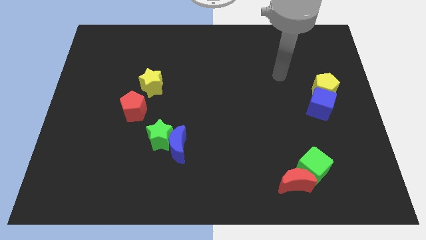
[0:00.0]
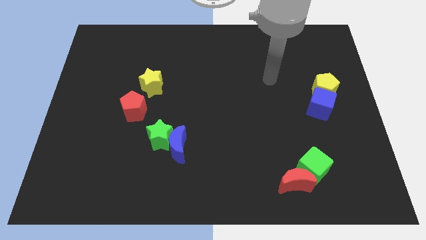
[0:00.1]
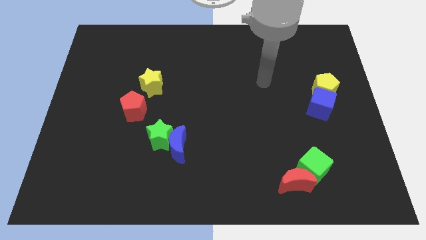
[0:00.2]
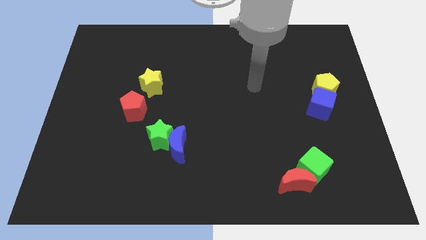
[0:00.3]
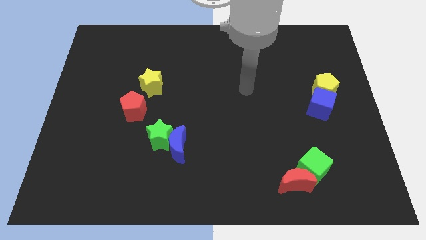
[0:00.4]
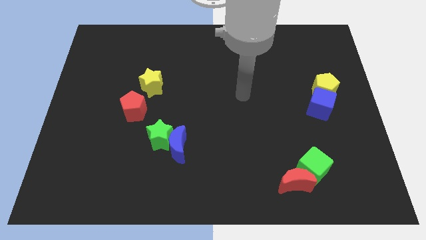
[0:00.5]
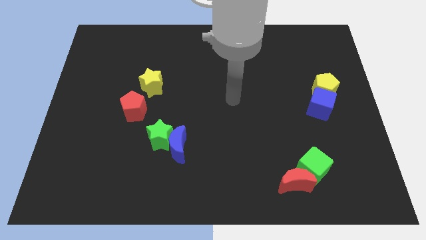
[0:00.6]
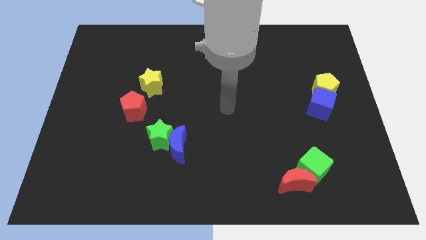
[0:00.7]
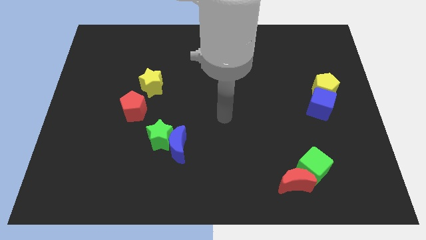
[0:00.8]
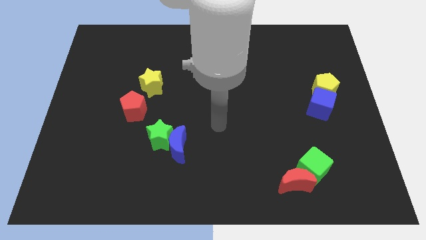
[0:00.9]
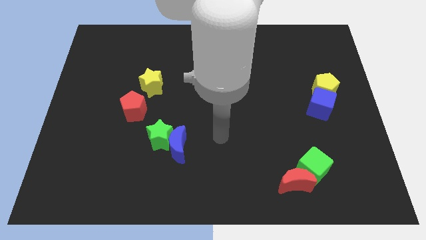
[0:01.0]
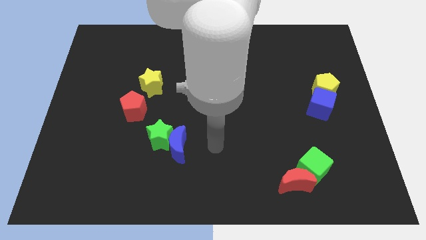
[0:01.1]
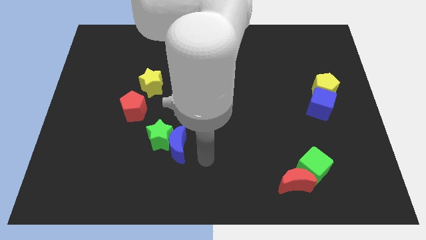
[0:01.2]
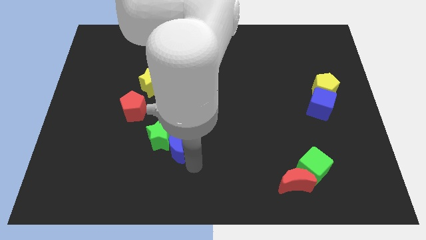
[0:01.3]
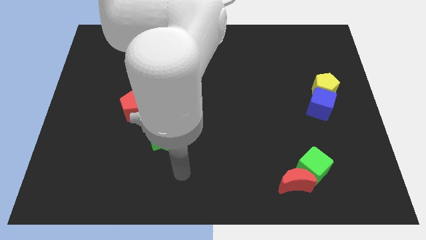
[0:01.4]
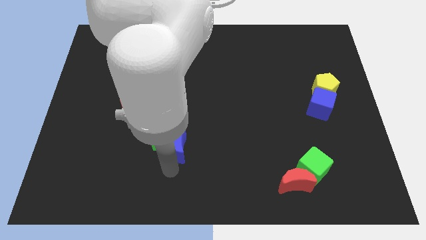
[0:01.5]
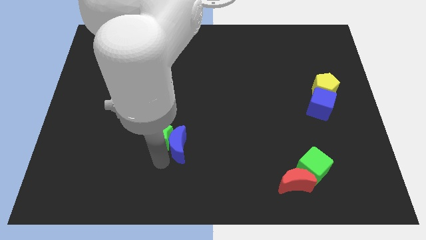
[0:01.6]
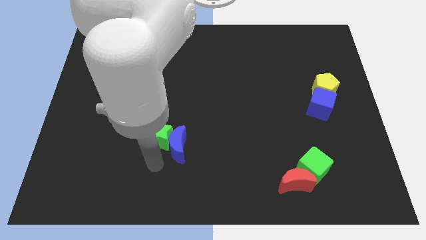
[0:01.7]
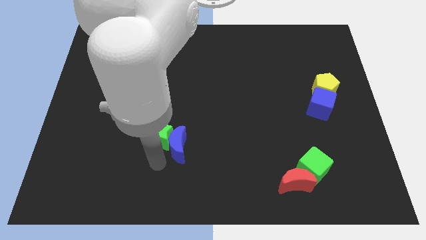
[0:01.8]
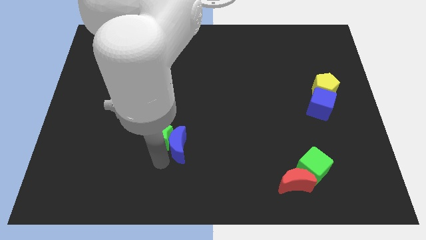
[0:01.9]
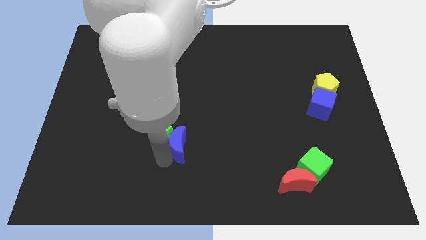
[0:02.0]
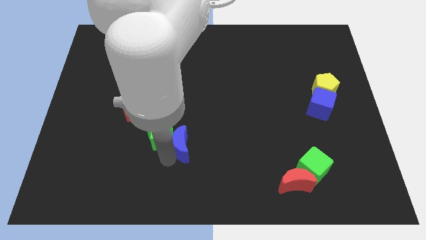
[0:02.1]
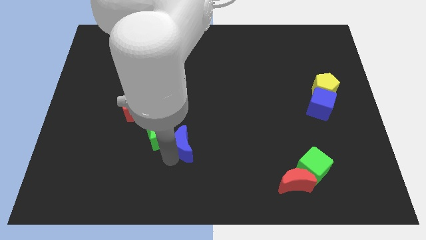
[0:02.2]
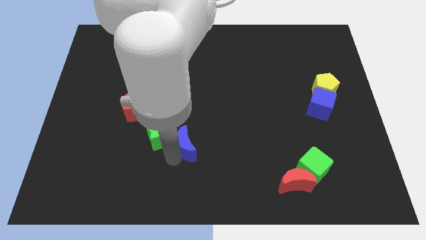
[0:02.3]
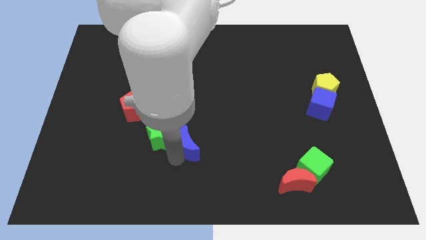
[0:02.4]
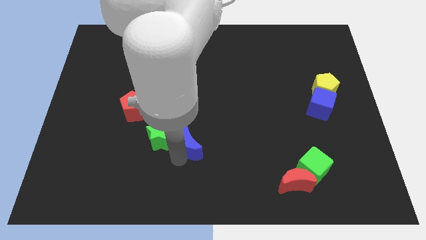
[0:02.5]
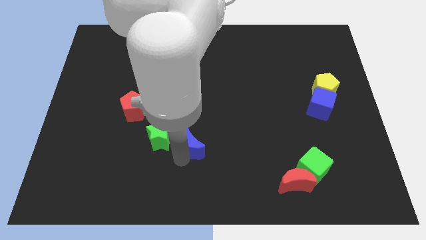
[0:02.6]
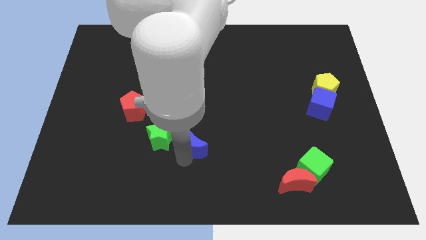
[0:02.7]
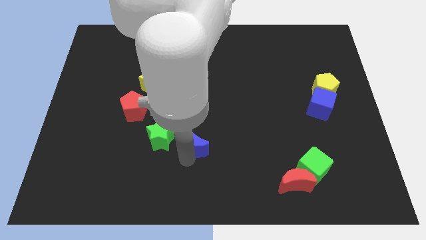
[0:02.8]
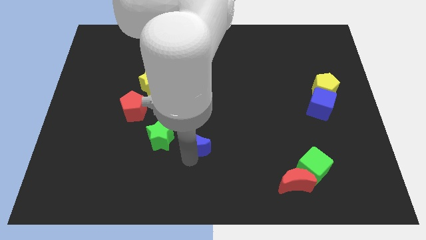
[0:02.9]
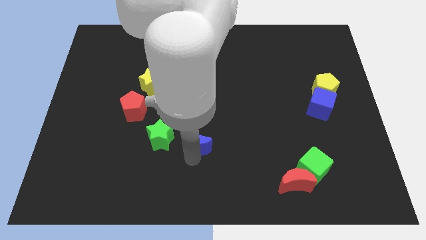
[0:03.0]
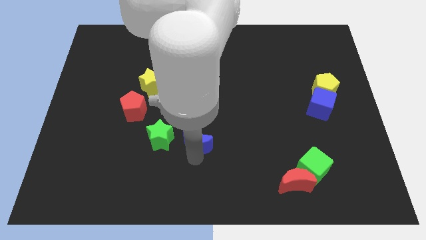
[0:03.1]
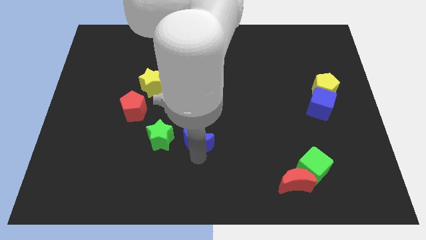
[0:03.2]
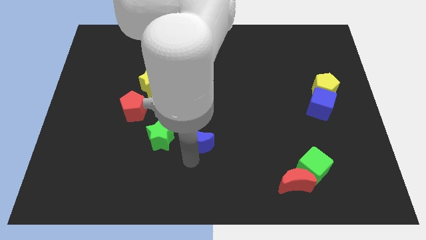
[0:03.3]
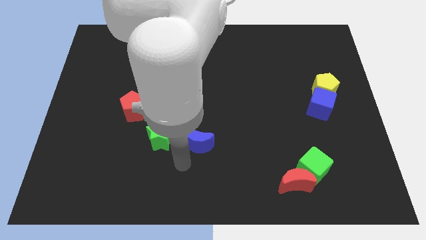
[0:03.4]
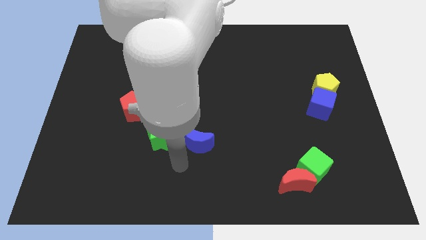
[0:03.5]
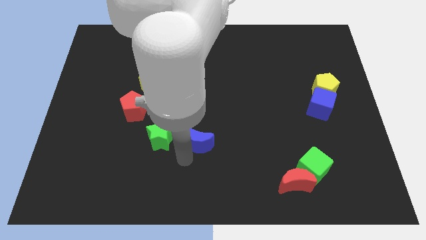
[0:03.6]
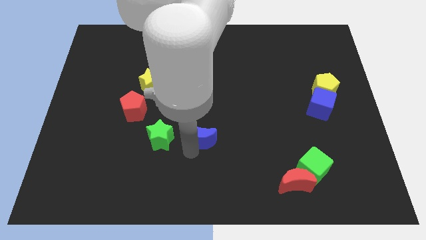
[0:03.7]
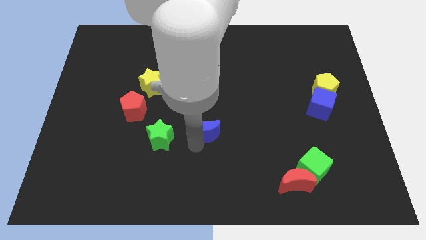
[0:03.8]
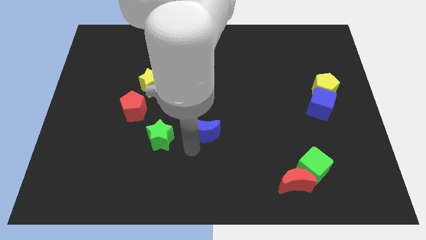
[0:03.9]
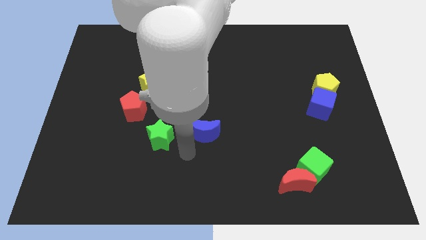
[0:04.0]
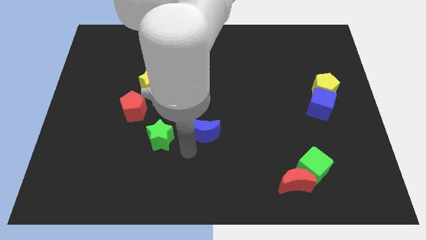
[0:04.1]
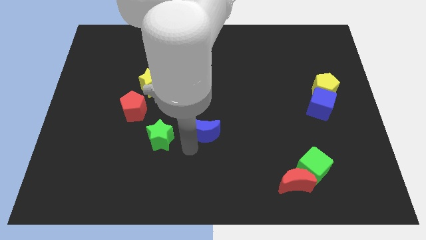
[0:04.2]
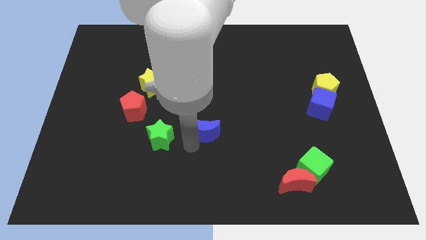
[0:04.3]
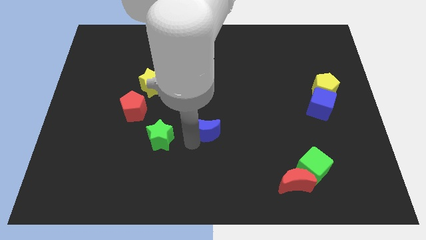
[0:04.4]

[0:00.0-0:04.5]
slide the blue moon a little upwards and right

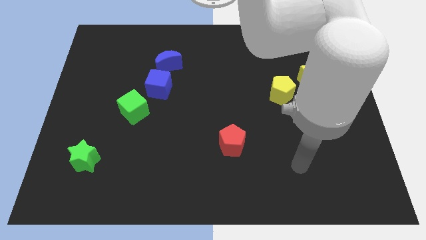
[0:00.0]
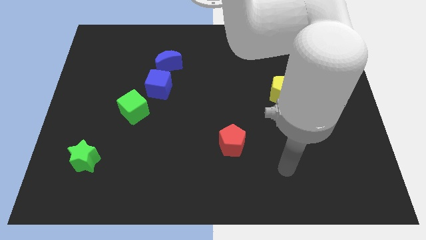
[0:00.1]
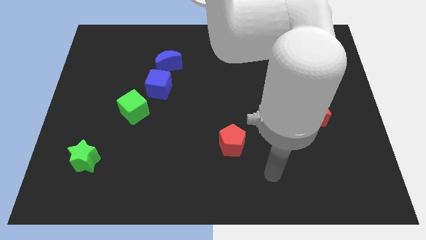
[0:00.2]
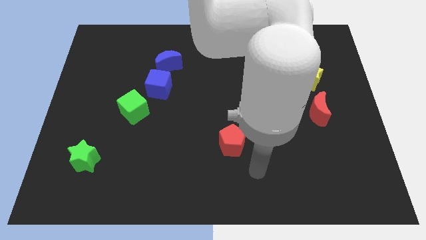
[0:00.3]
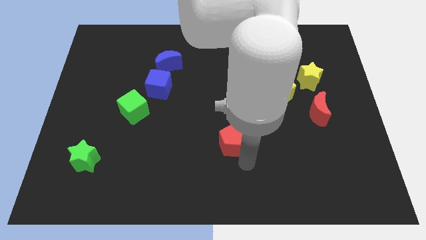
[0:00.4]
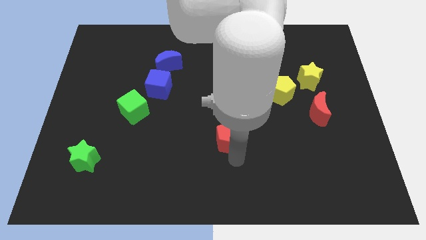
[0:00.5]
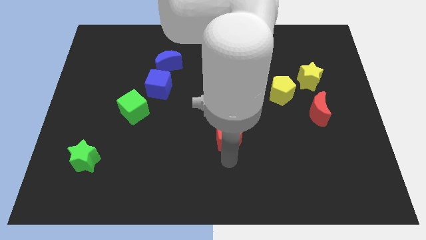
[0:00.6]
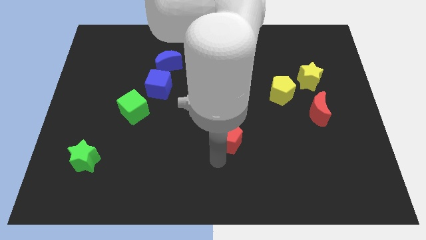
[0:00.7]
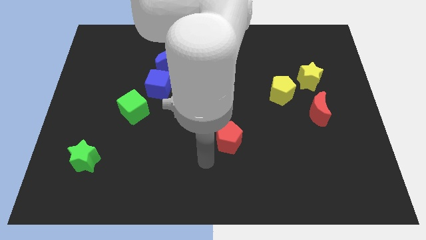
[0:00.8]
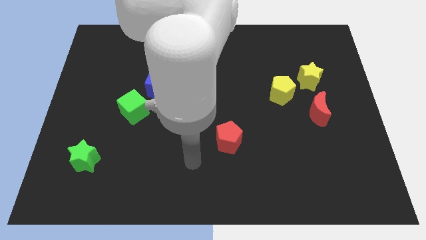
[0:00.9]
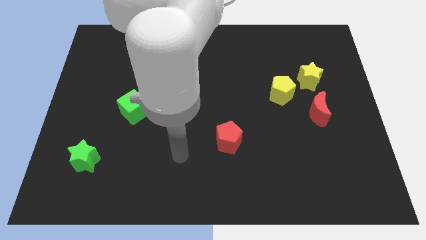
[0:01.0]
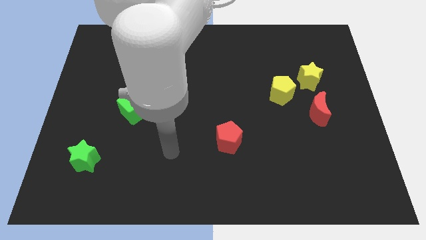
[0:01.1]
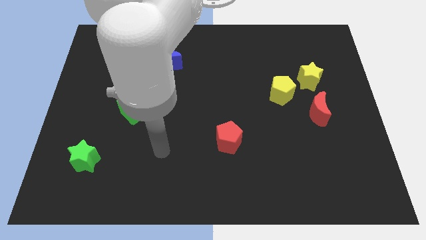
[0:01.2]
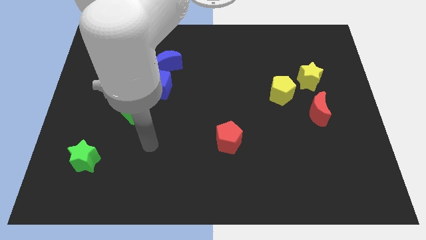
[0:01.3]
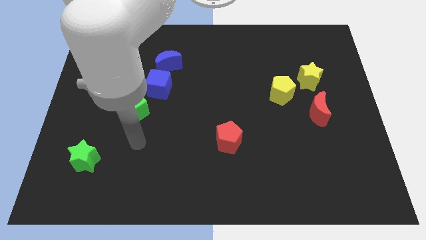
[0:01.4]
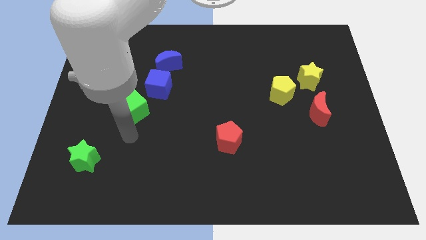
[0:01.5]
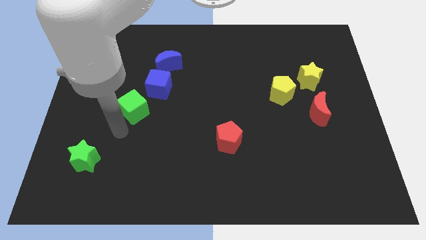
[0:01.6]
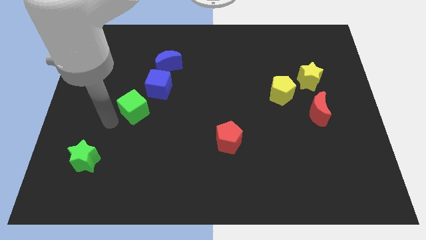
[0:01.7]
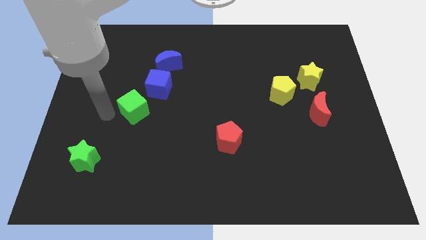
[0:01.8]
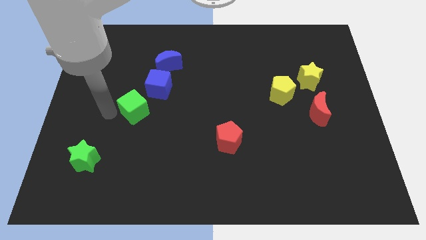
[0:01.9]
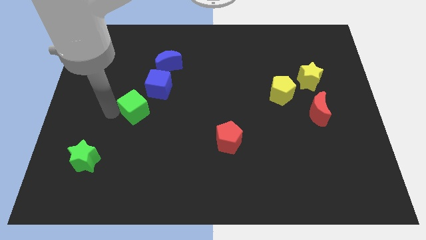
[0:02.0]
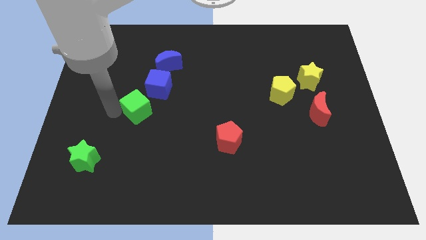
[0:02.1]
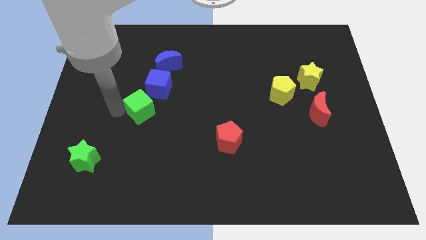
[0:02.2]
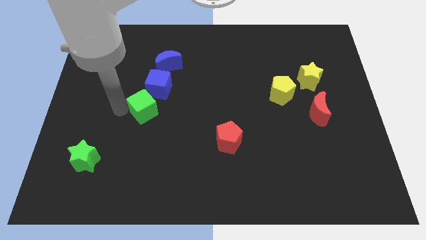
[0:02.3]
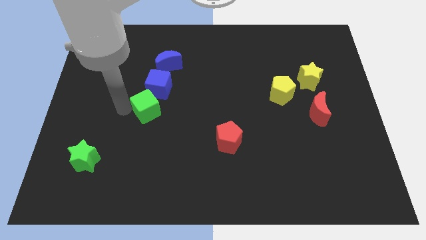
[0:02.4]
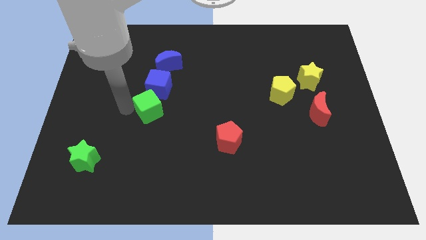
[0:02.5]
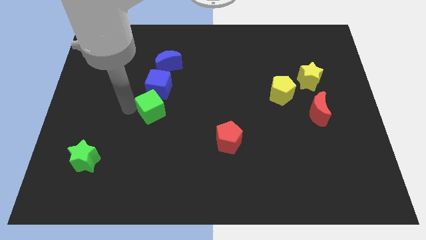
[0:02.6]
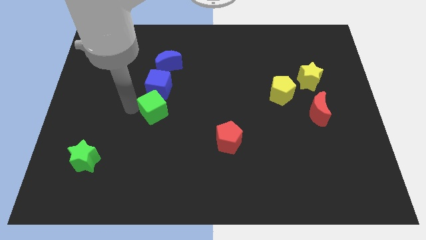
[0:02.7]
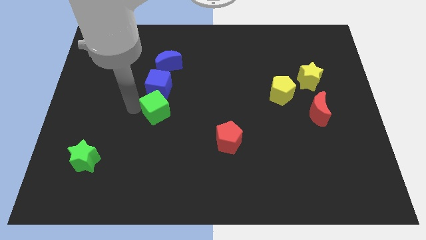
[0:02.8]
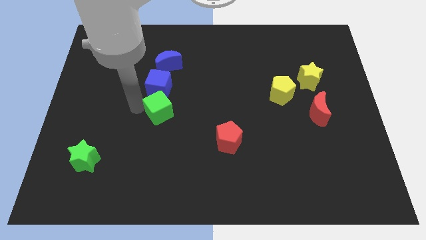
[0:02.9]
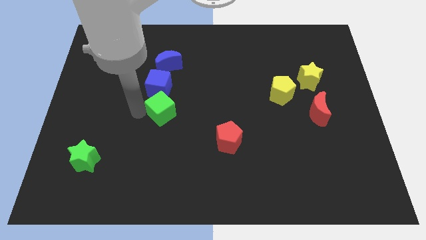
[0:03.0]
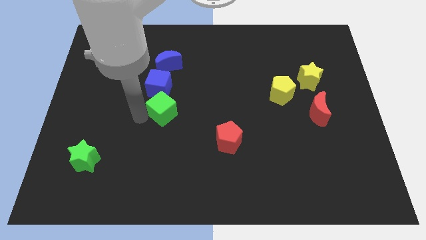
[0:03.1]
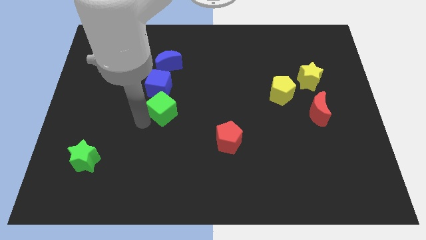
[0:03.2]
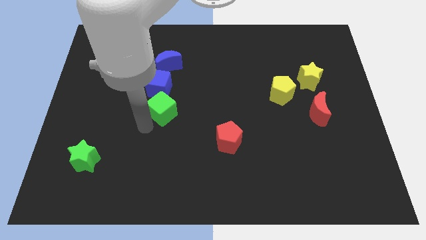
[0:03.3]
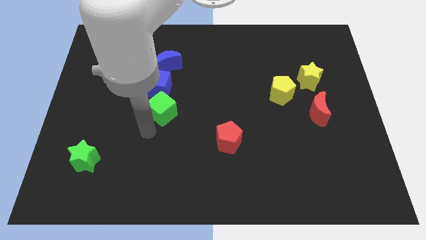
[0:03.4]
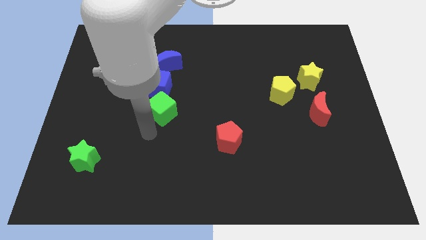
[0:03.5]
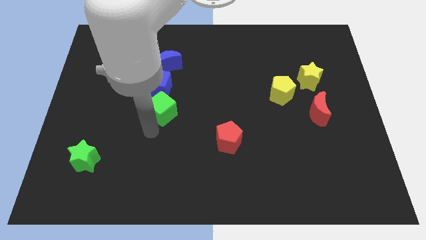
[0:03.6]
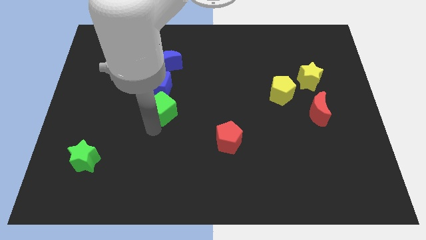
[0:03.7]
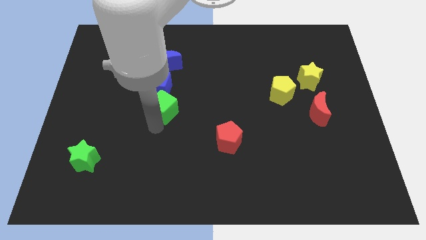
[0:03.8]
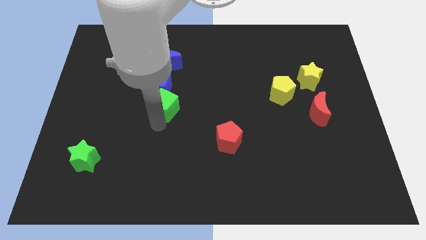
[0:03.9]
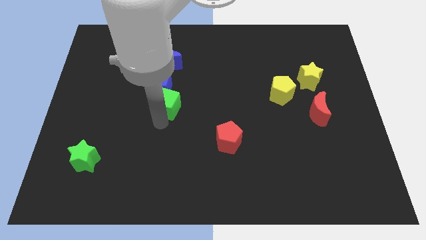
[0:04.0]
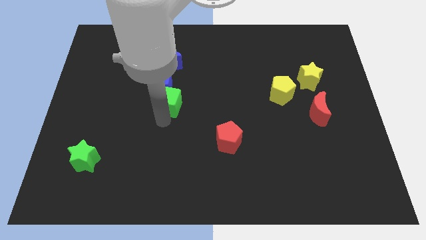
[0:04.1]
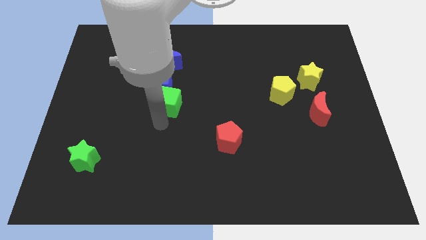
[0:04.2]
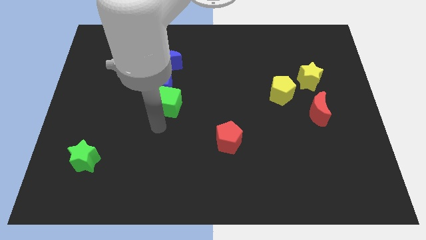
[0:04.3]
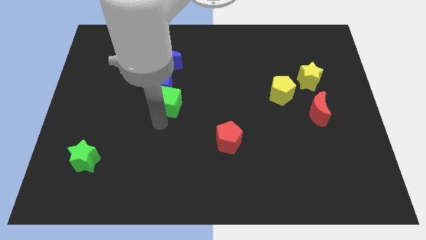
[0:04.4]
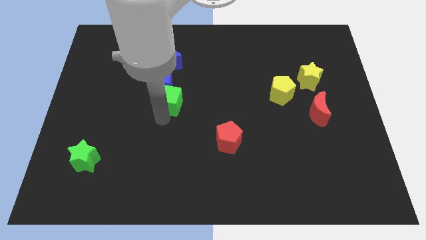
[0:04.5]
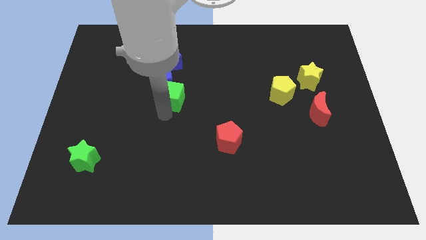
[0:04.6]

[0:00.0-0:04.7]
move the green cube diagonally upwards and right slightly
